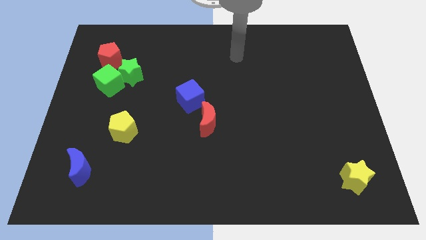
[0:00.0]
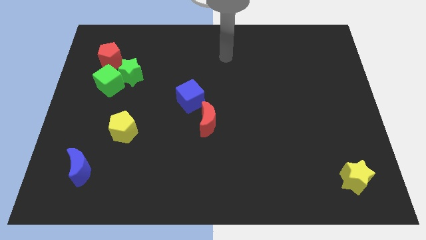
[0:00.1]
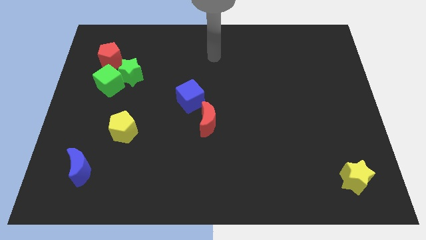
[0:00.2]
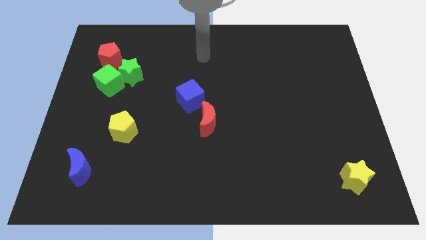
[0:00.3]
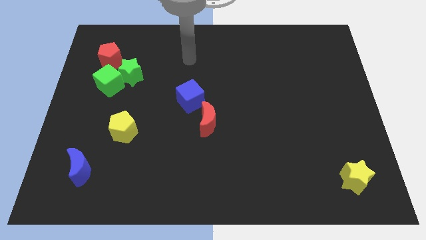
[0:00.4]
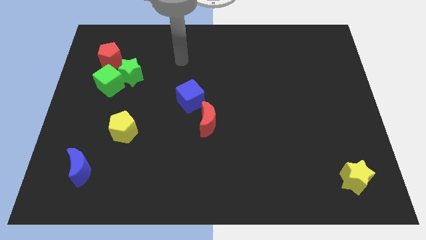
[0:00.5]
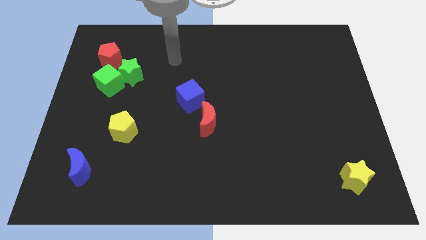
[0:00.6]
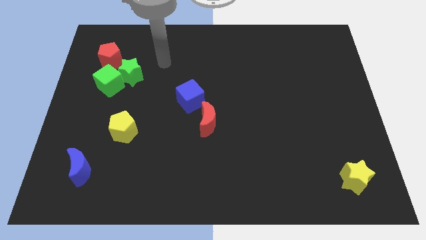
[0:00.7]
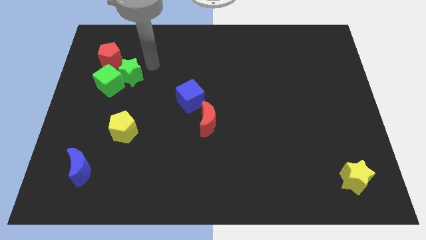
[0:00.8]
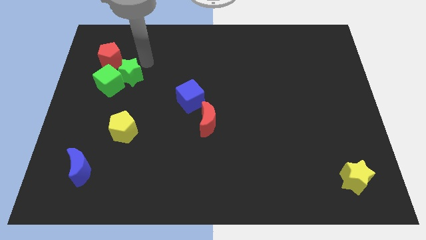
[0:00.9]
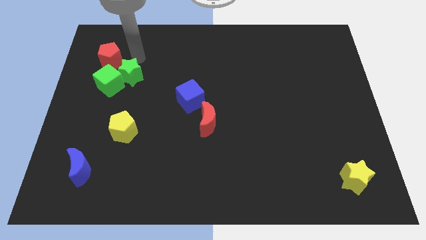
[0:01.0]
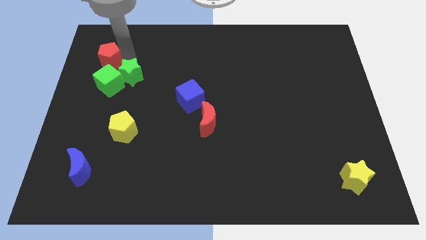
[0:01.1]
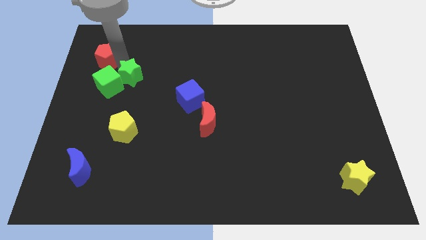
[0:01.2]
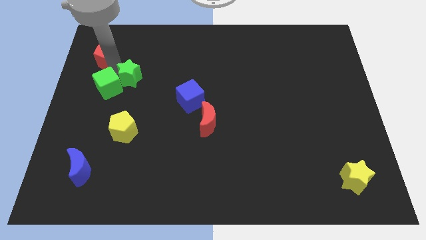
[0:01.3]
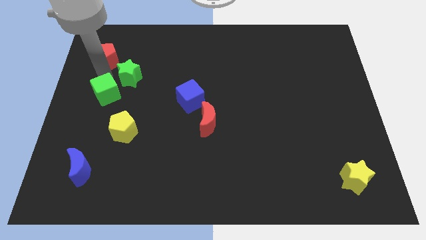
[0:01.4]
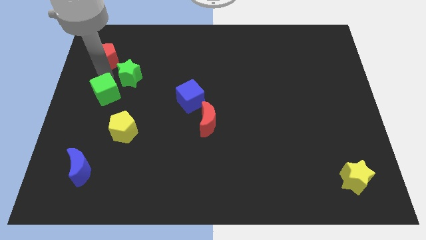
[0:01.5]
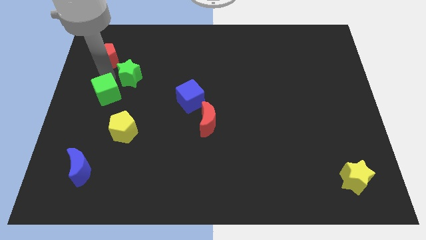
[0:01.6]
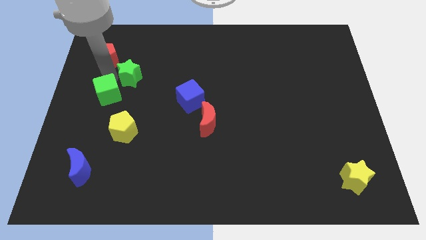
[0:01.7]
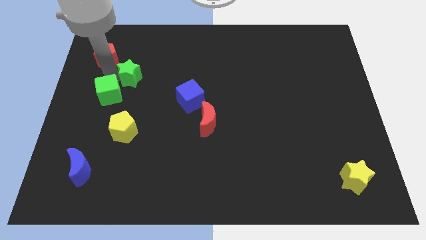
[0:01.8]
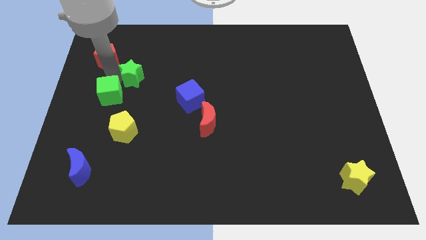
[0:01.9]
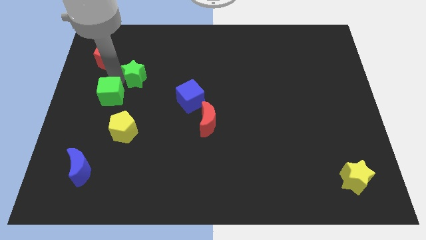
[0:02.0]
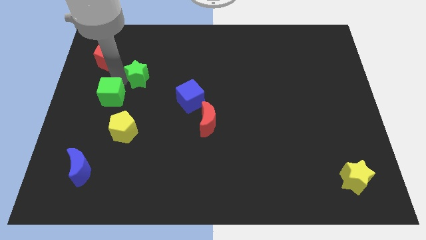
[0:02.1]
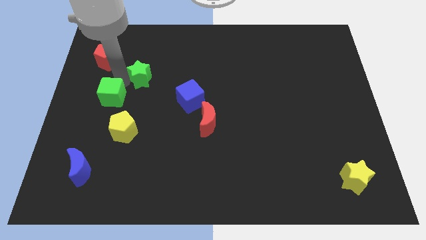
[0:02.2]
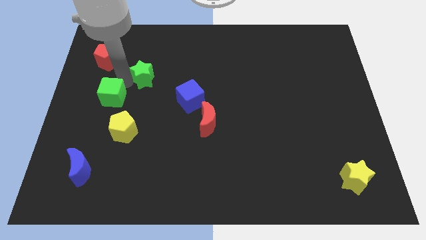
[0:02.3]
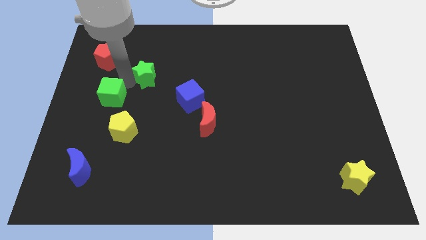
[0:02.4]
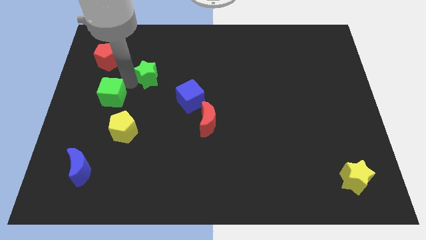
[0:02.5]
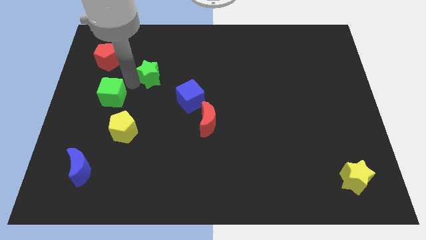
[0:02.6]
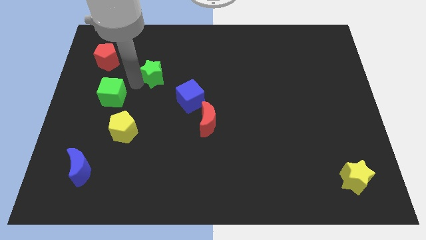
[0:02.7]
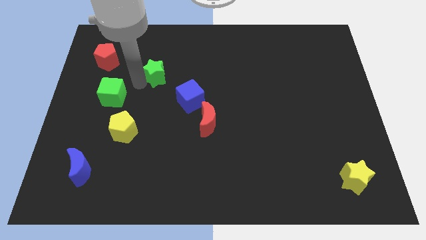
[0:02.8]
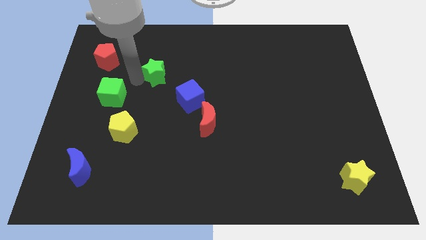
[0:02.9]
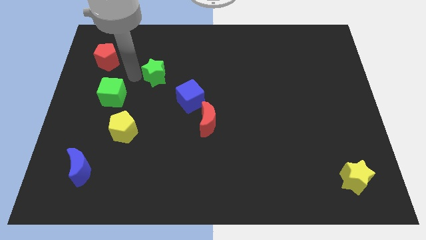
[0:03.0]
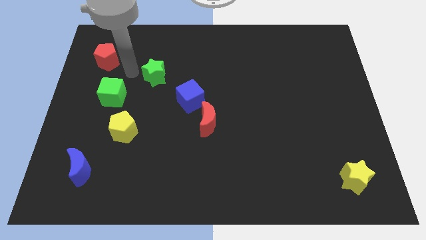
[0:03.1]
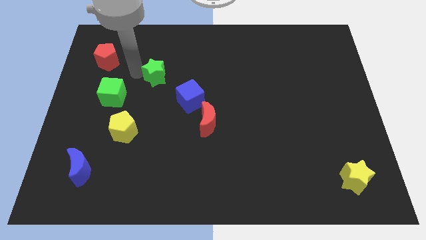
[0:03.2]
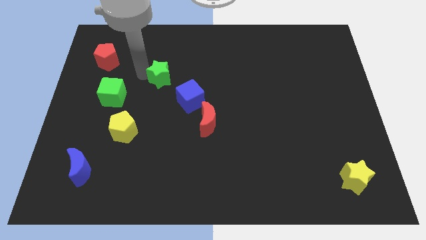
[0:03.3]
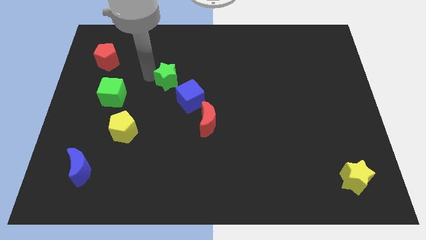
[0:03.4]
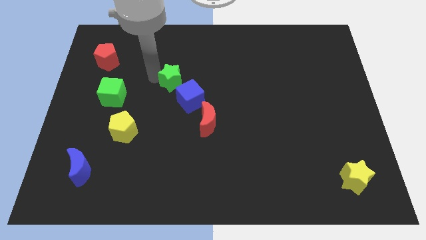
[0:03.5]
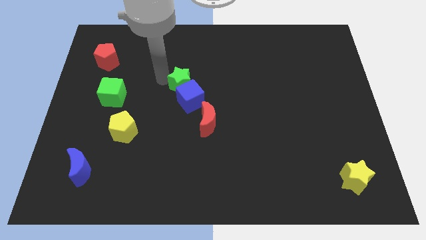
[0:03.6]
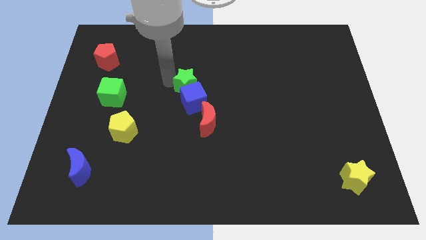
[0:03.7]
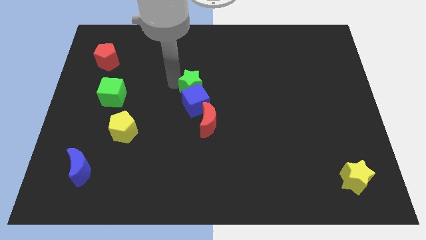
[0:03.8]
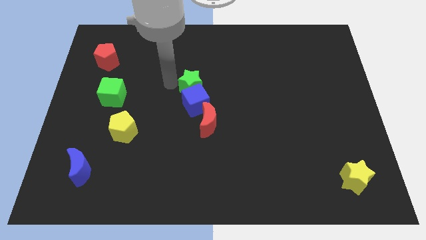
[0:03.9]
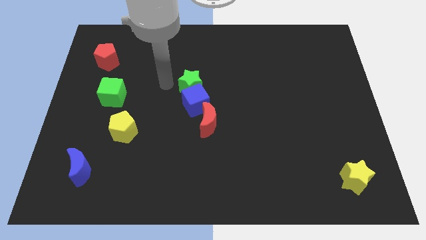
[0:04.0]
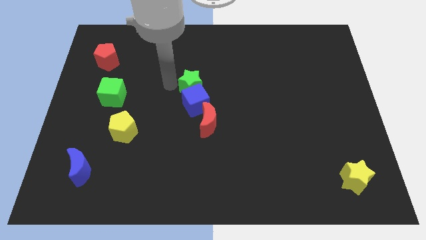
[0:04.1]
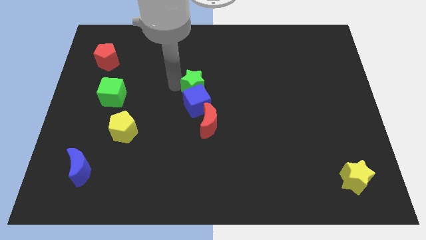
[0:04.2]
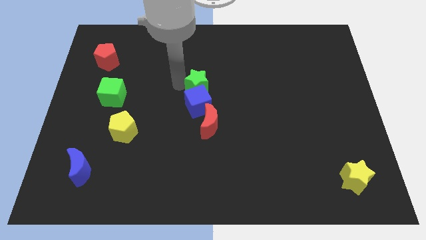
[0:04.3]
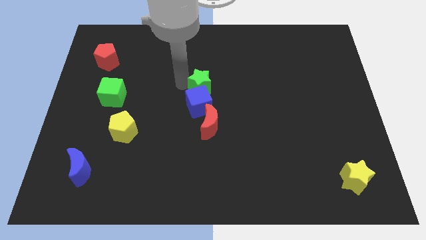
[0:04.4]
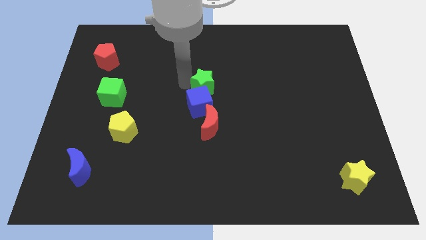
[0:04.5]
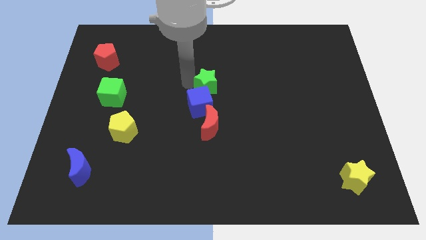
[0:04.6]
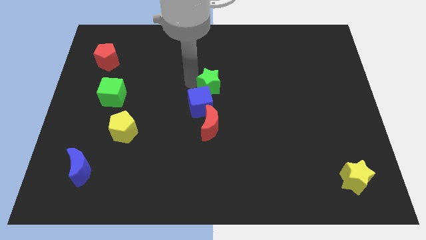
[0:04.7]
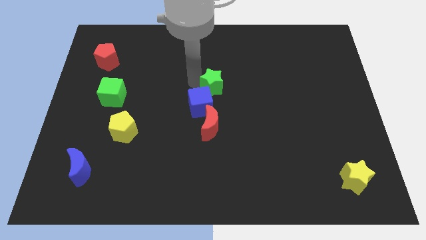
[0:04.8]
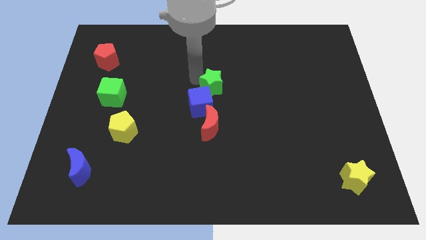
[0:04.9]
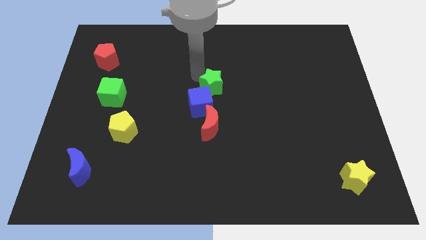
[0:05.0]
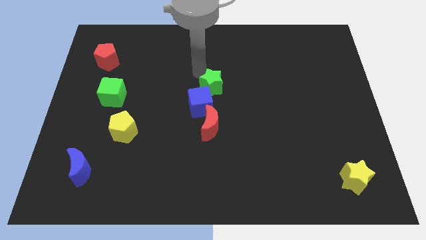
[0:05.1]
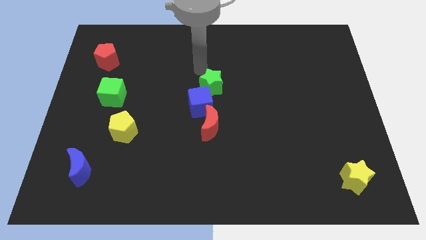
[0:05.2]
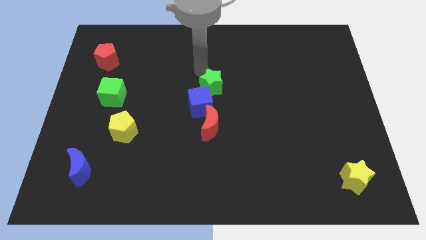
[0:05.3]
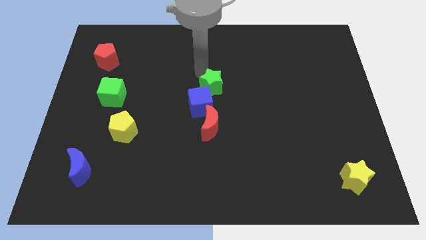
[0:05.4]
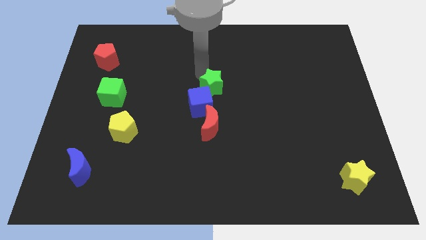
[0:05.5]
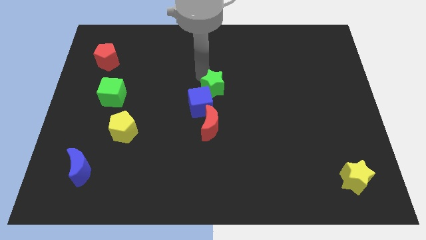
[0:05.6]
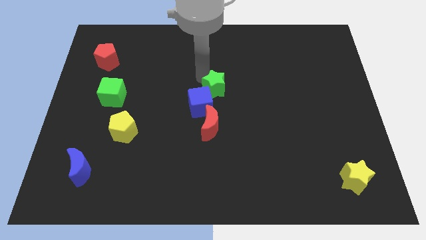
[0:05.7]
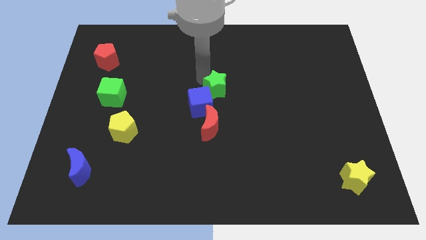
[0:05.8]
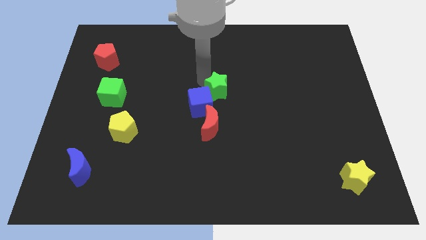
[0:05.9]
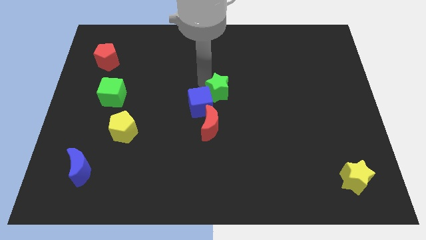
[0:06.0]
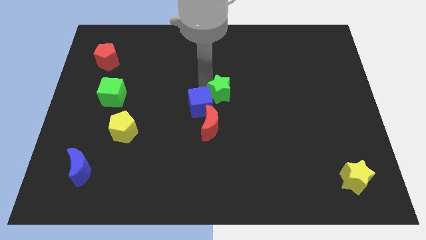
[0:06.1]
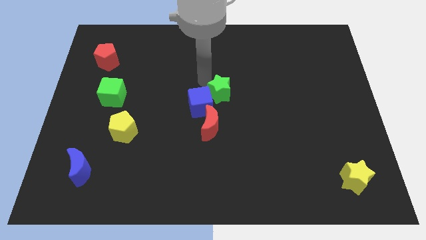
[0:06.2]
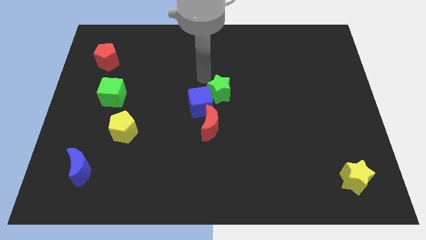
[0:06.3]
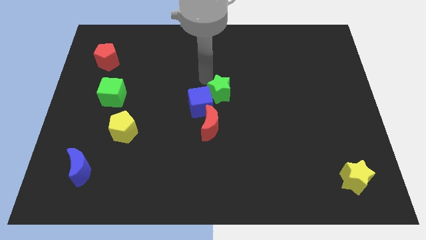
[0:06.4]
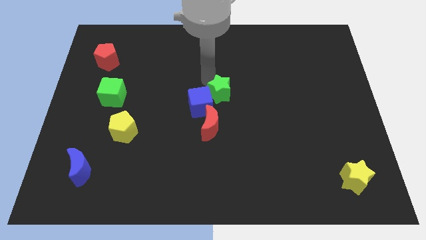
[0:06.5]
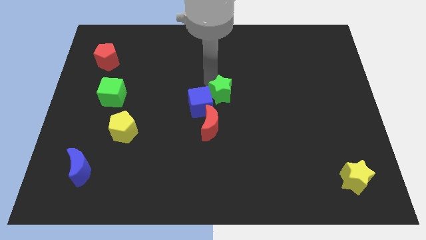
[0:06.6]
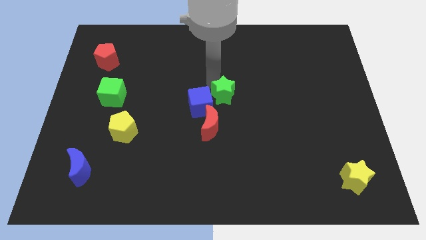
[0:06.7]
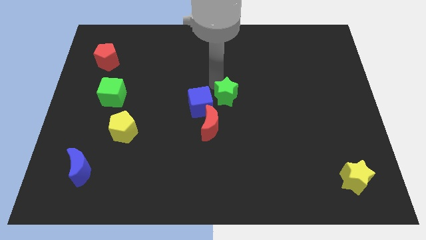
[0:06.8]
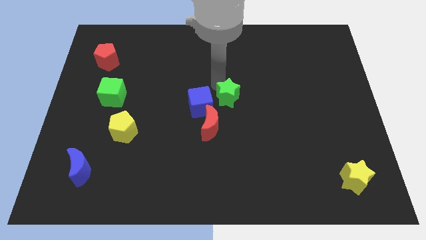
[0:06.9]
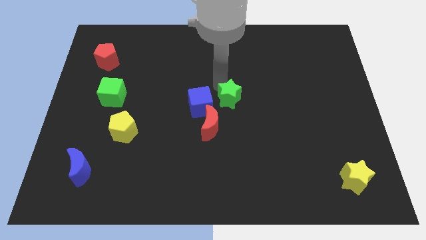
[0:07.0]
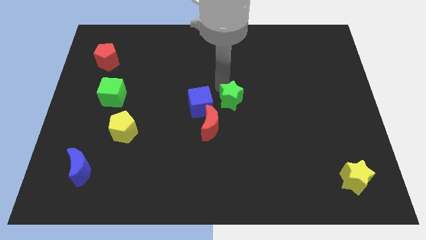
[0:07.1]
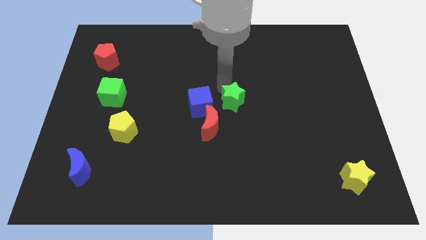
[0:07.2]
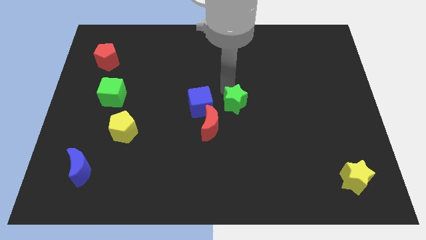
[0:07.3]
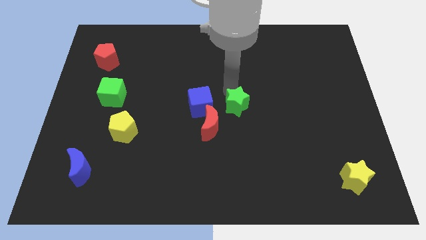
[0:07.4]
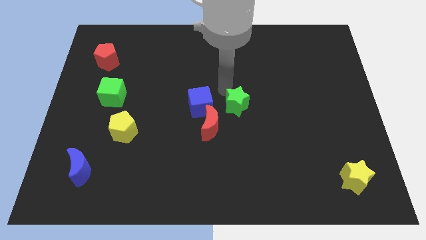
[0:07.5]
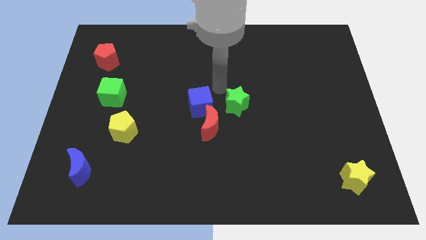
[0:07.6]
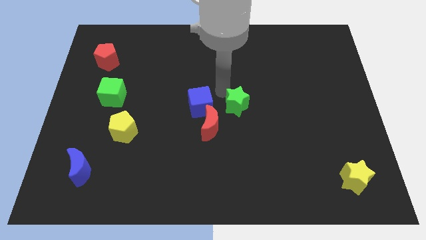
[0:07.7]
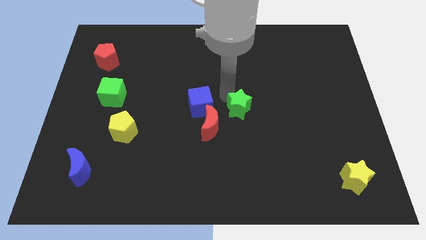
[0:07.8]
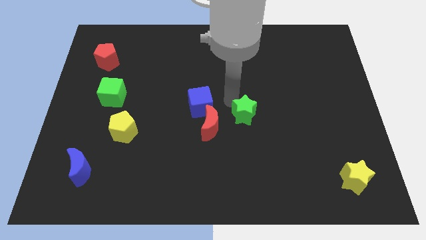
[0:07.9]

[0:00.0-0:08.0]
put the green star just right of the red moon
